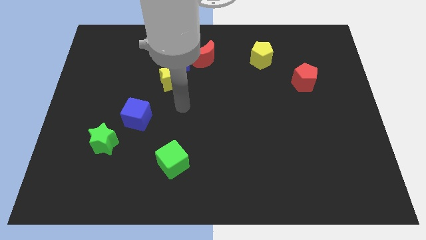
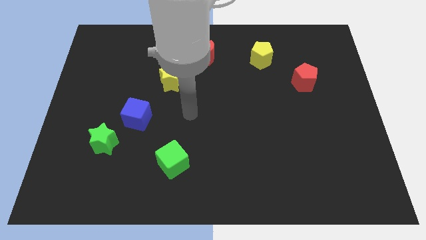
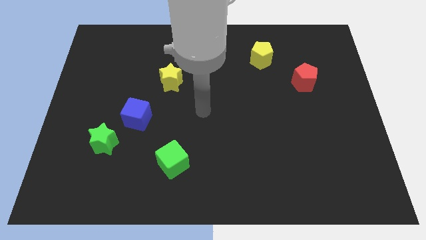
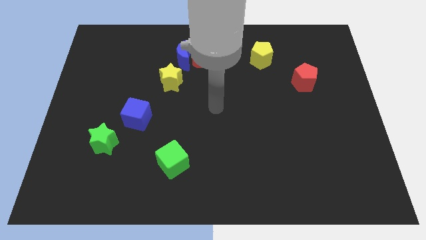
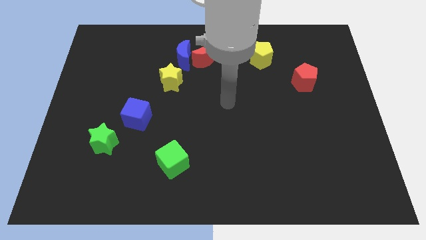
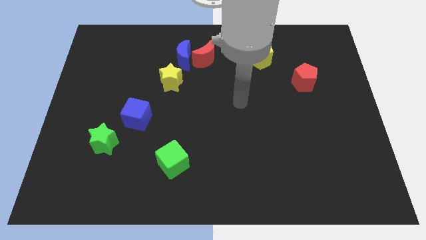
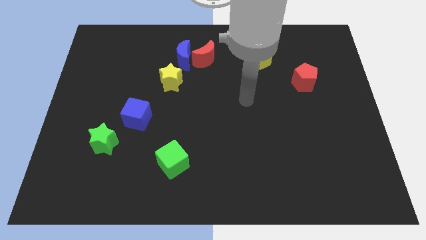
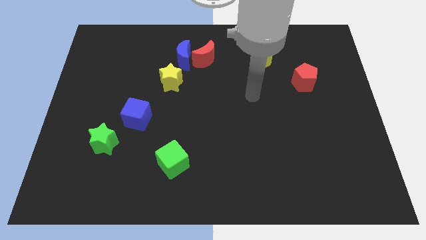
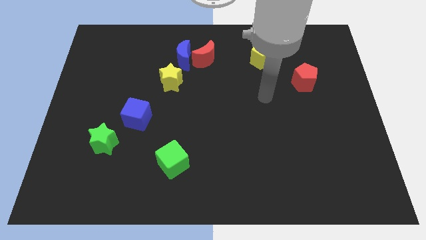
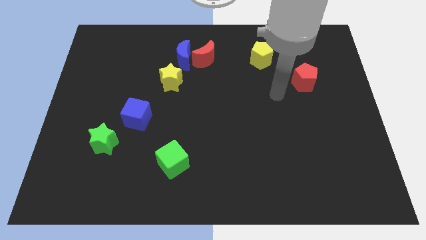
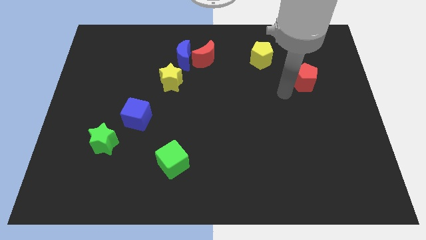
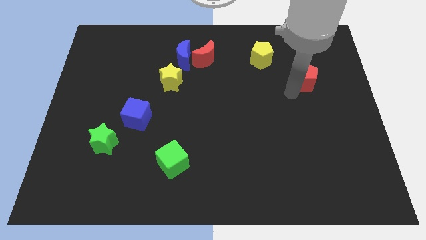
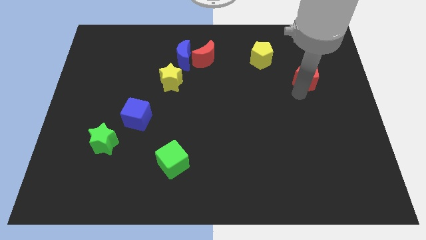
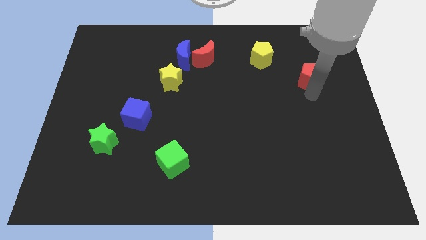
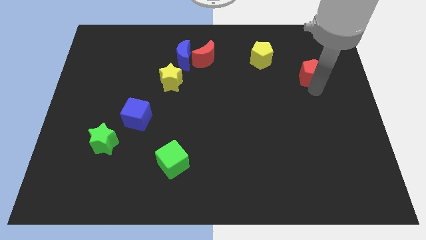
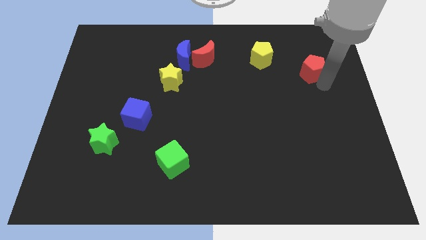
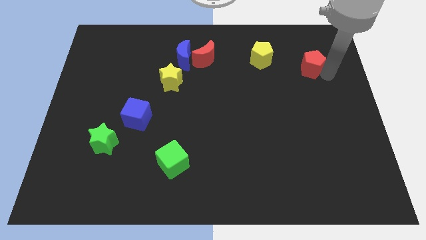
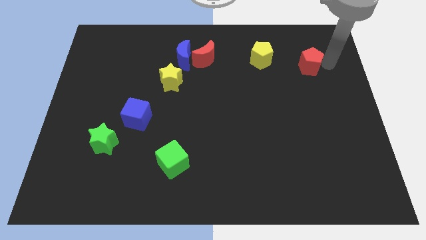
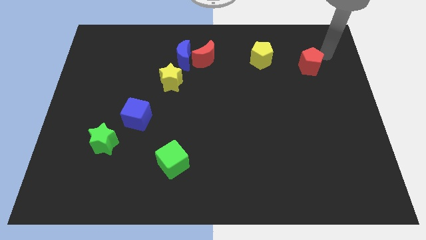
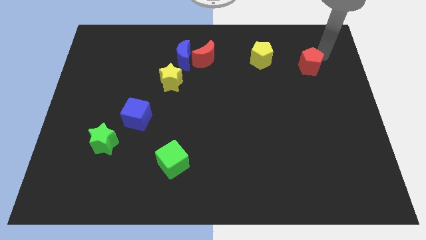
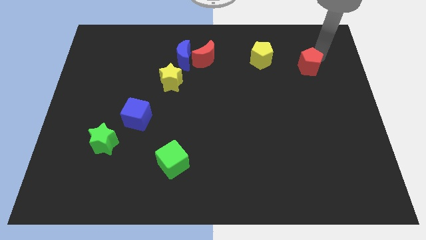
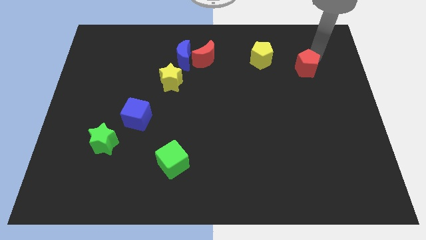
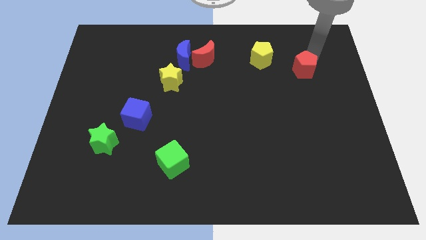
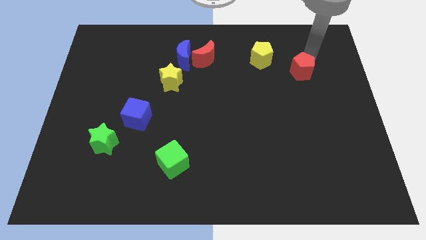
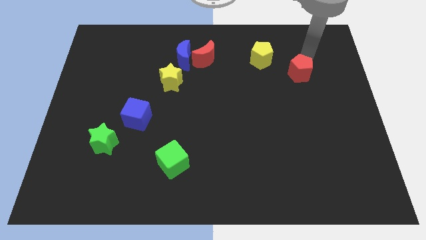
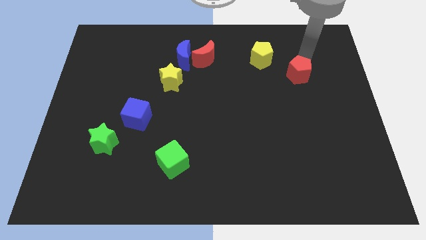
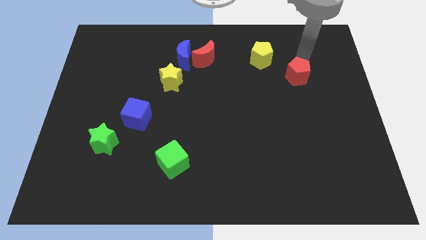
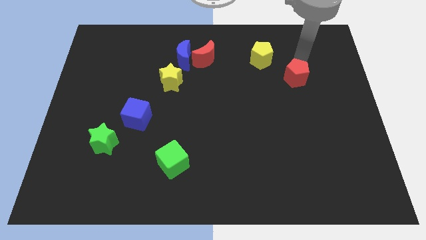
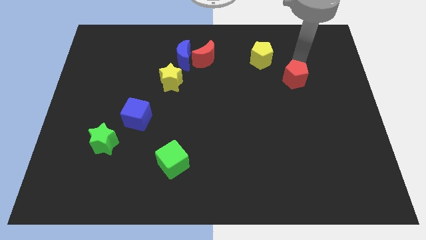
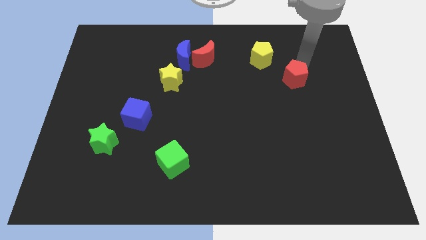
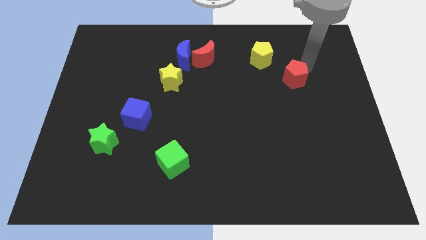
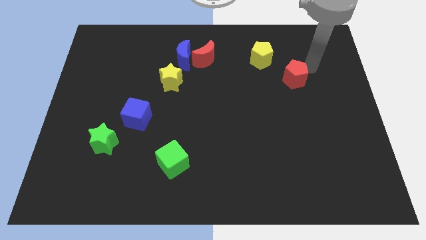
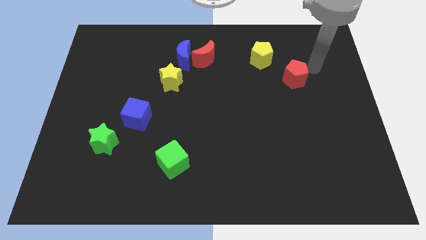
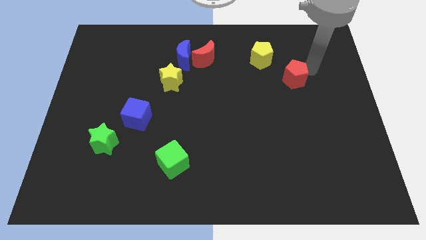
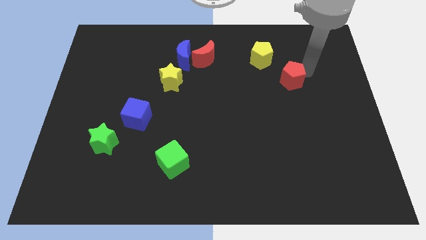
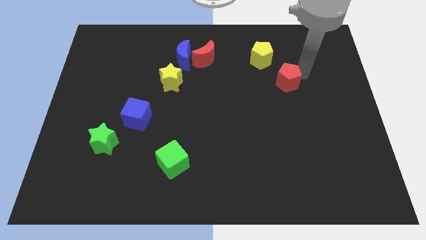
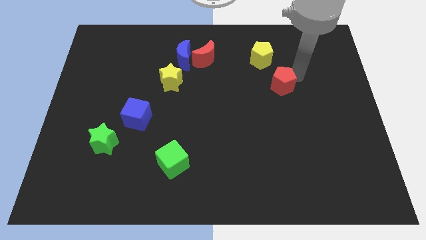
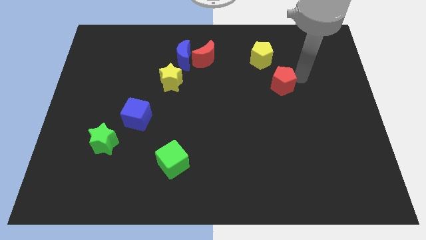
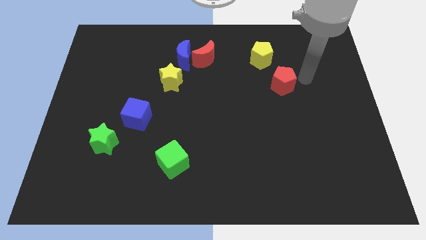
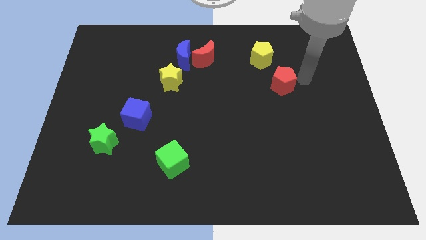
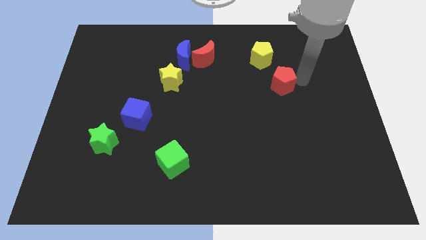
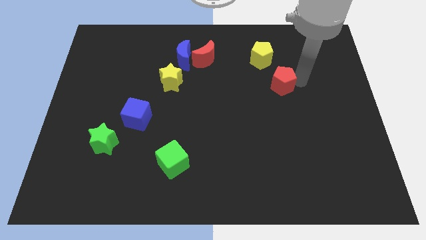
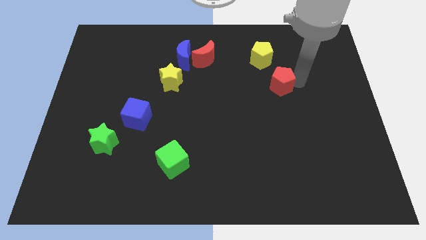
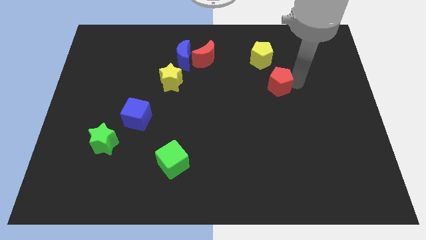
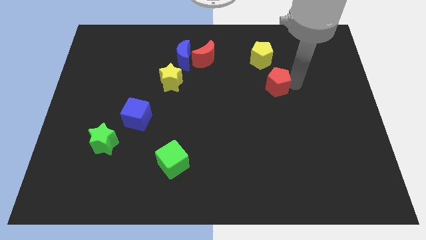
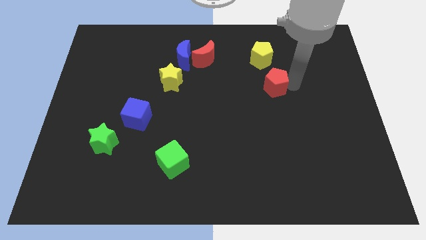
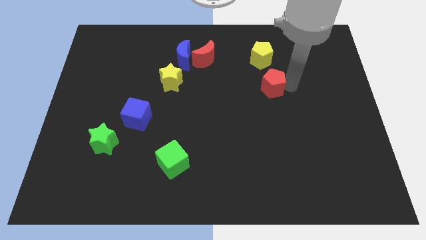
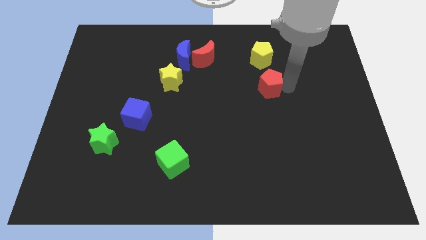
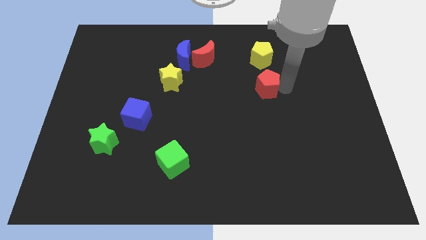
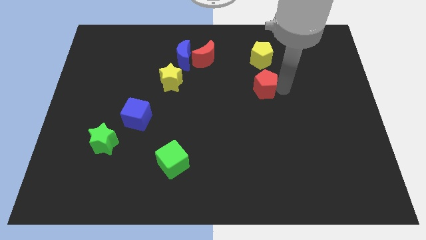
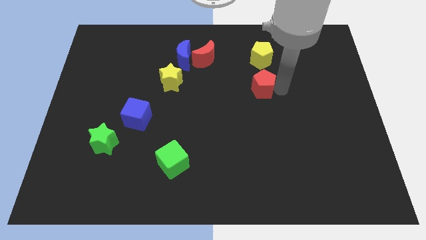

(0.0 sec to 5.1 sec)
put the red pentagon to the center

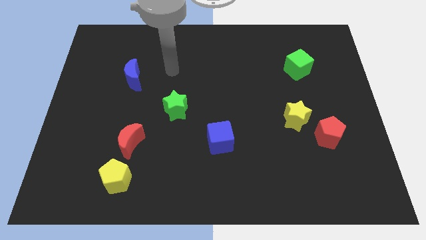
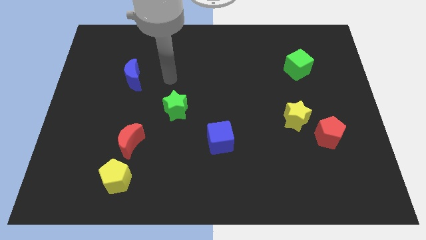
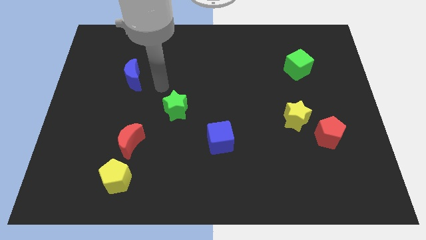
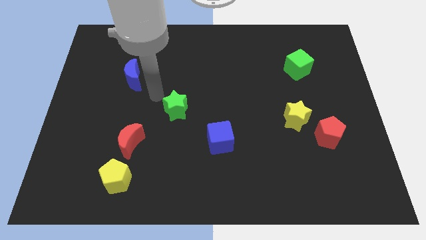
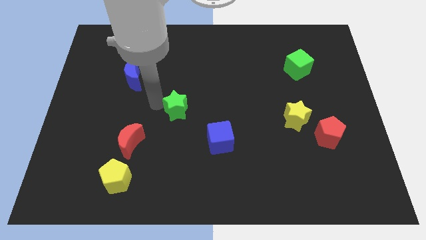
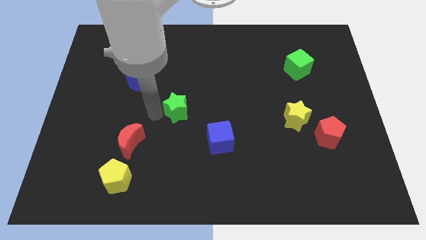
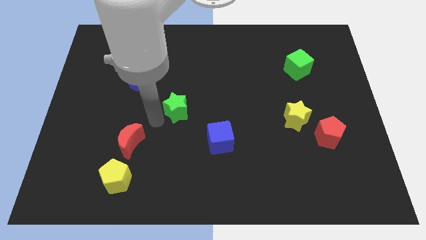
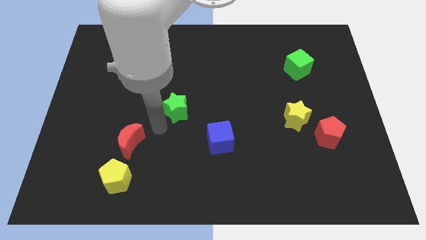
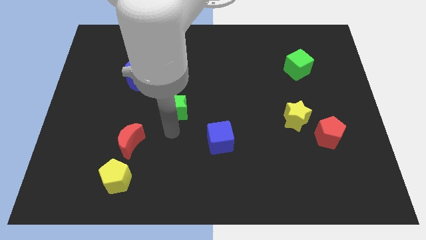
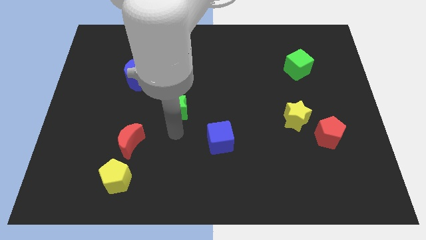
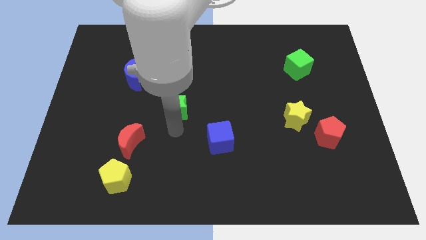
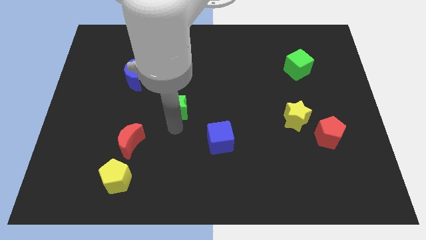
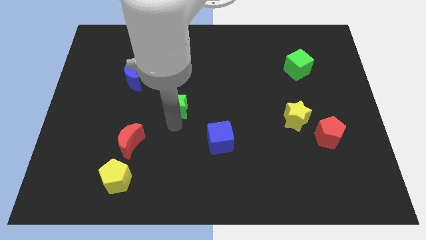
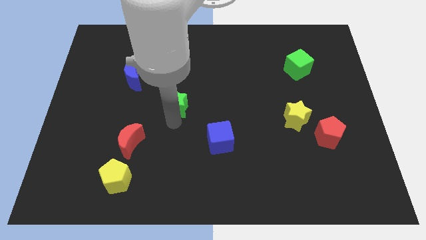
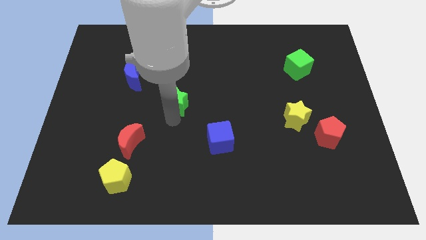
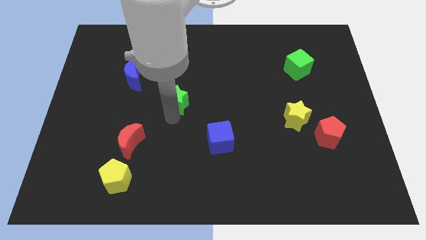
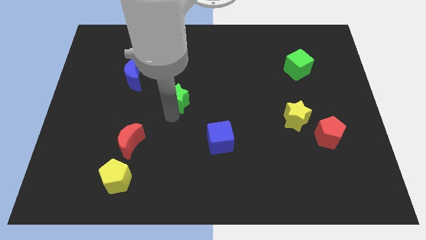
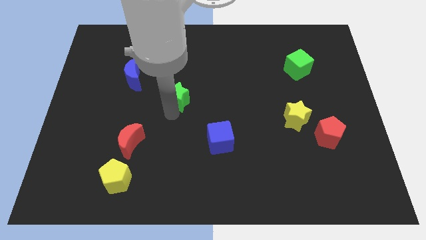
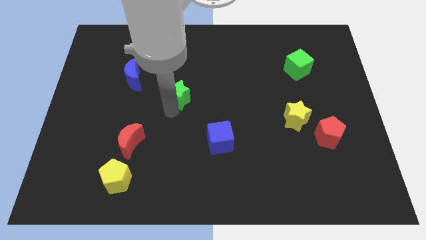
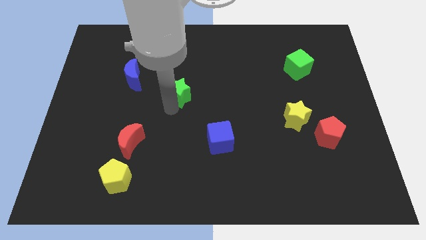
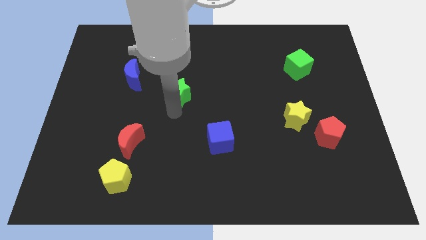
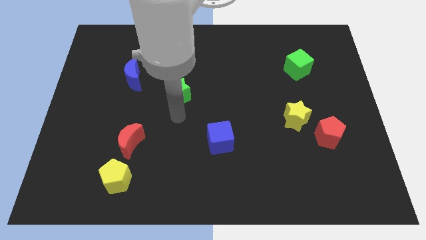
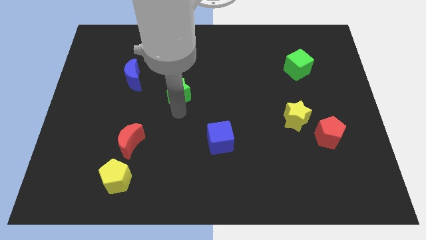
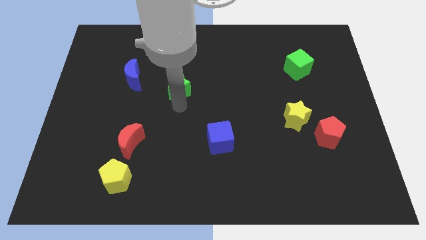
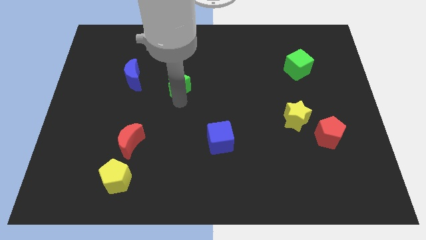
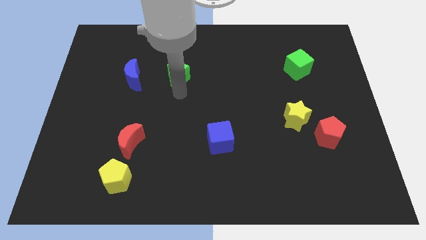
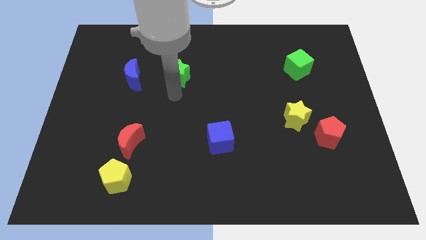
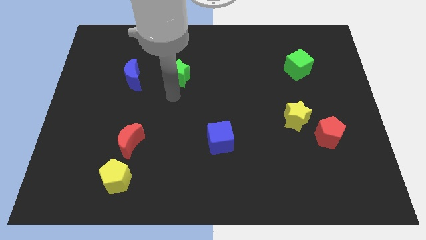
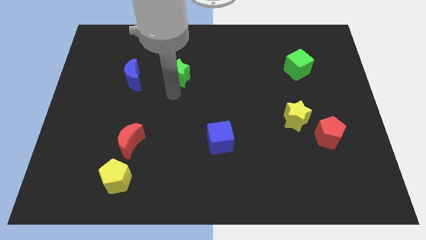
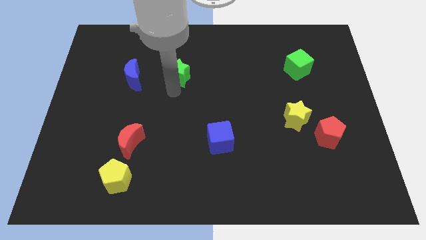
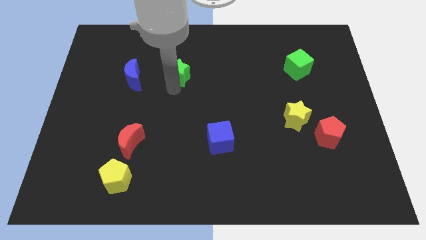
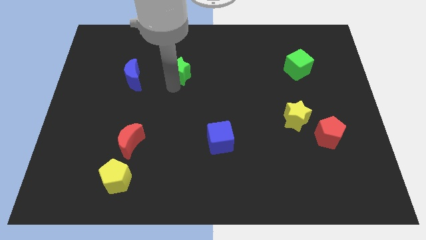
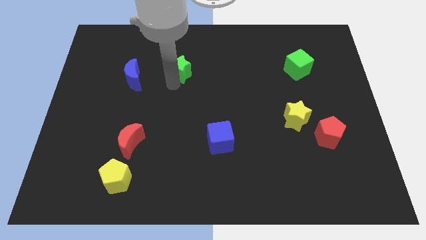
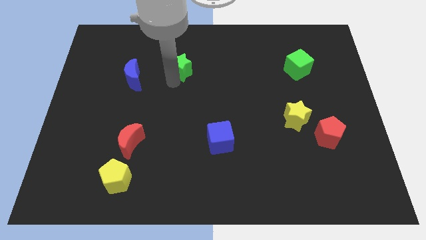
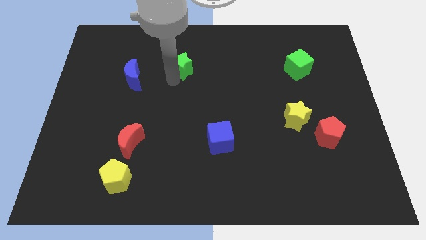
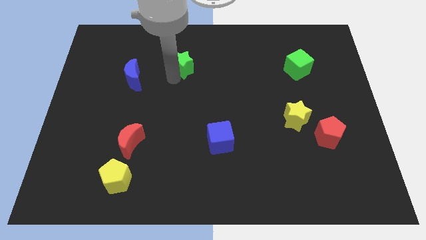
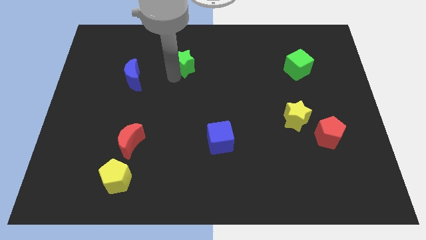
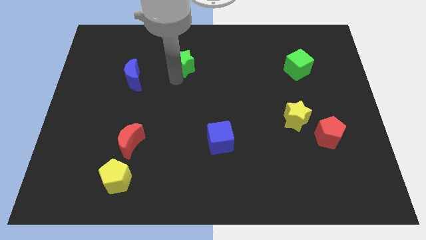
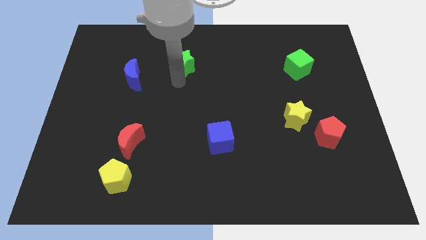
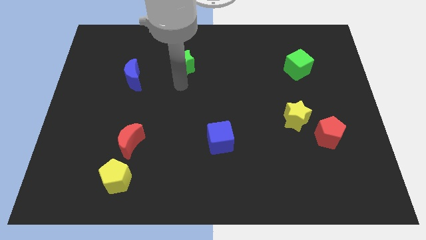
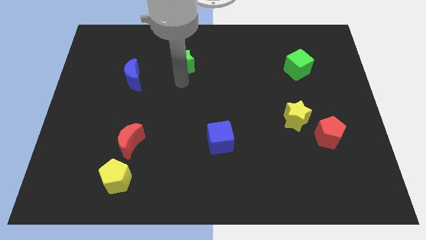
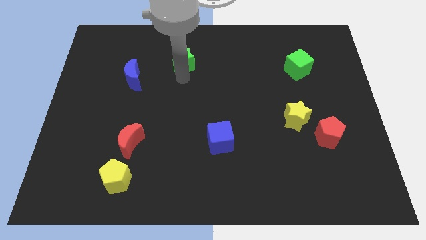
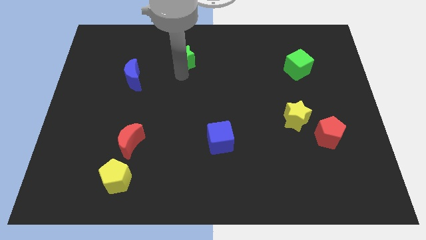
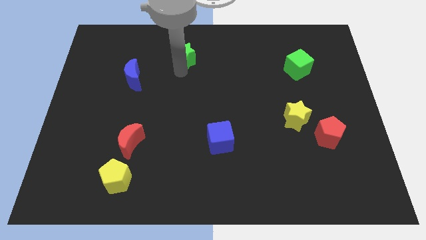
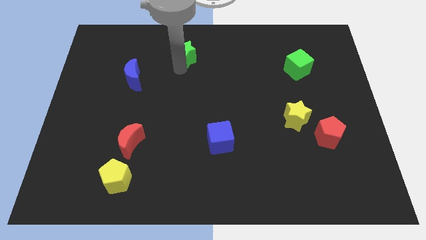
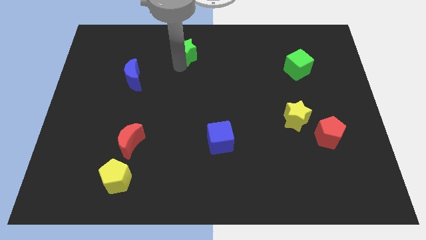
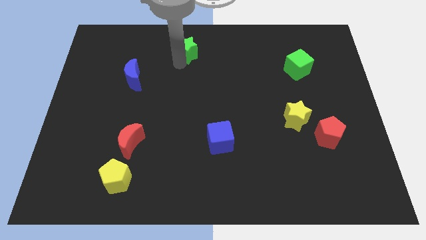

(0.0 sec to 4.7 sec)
push the green star to the top side
